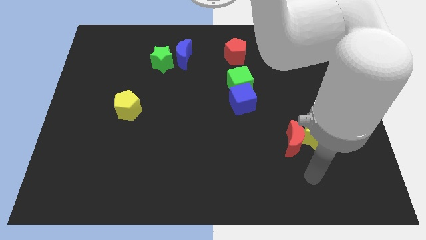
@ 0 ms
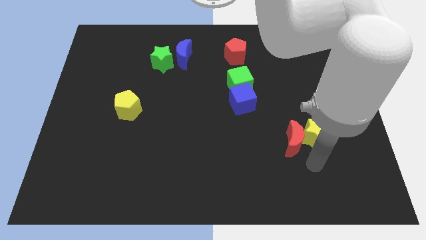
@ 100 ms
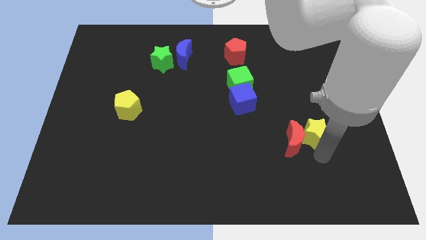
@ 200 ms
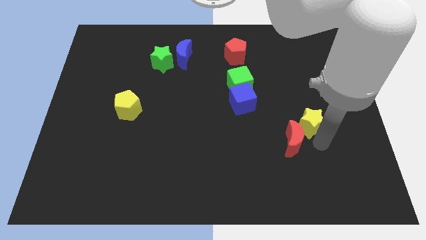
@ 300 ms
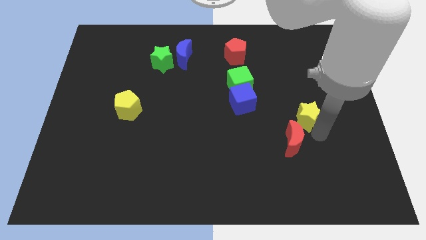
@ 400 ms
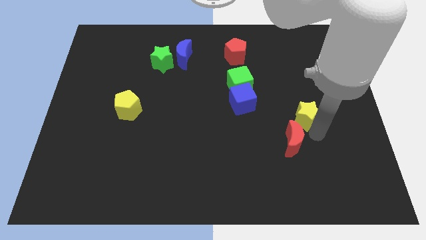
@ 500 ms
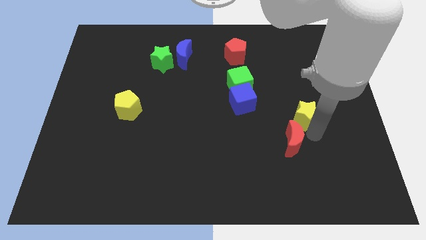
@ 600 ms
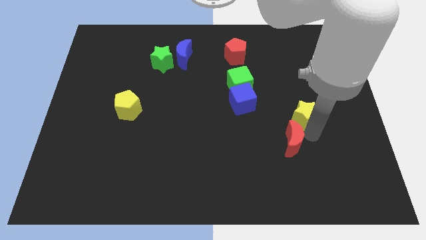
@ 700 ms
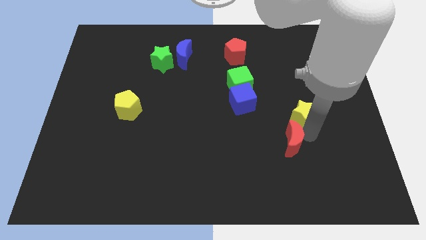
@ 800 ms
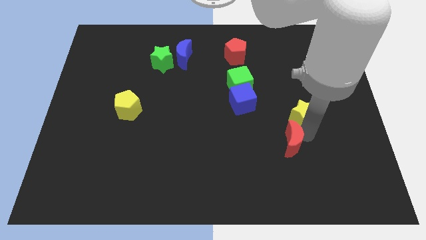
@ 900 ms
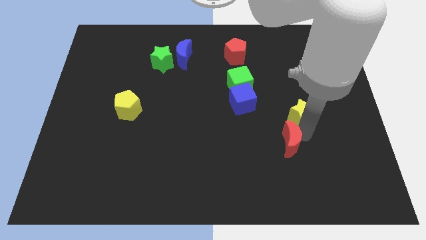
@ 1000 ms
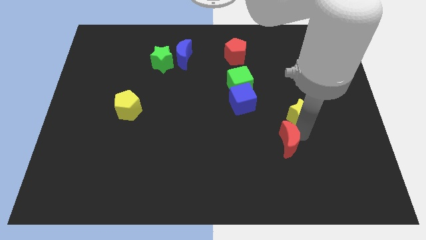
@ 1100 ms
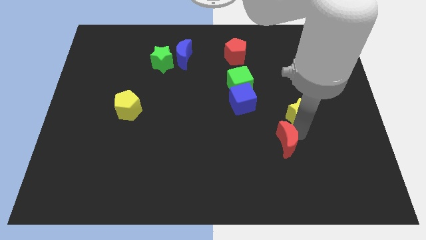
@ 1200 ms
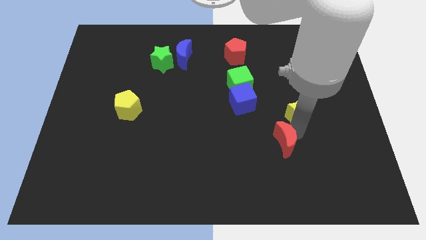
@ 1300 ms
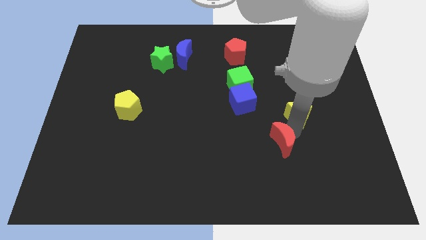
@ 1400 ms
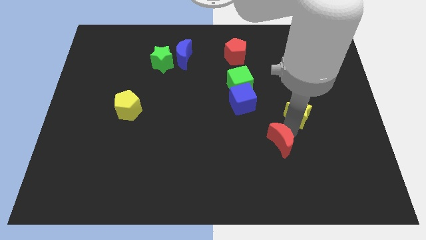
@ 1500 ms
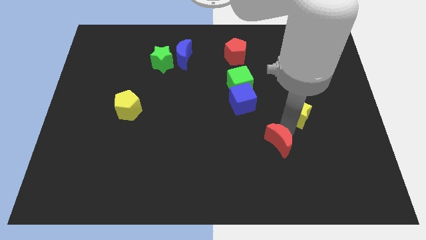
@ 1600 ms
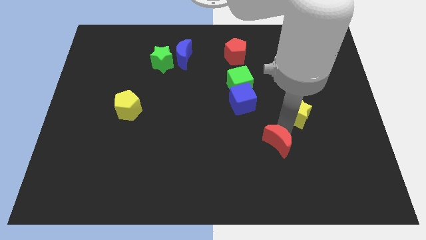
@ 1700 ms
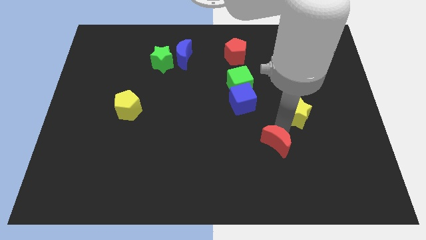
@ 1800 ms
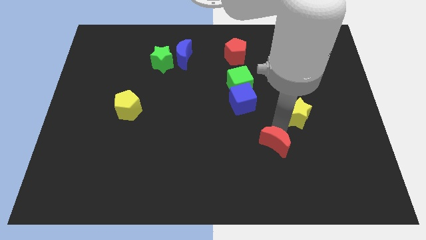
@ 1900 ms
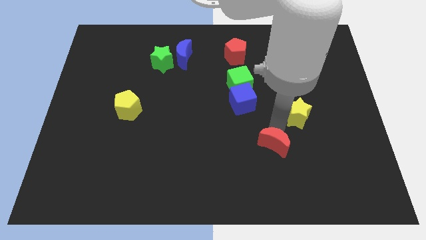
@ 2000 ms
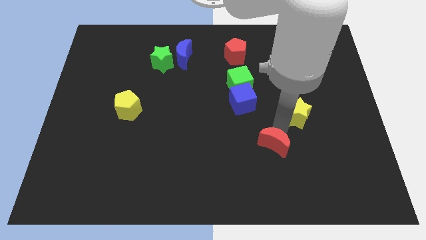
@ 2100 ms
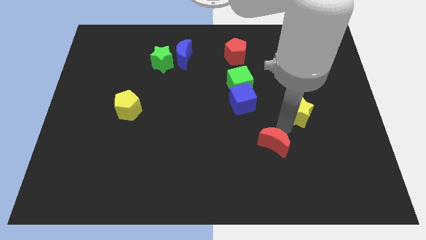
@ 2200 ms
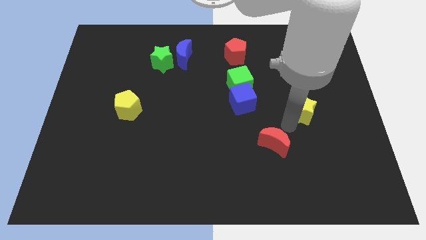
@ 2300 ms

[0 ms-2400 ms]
move the red moon away from the yellow star

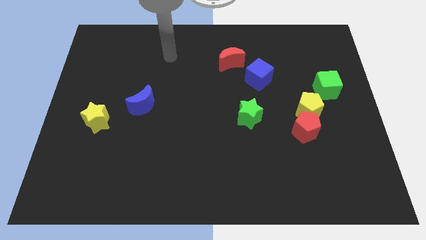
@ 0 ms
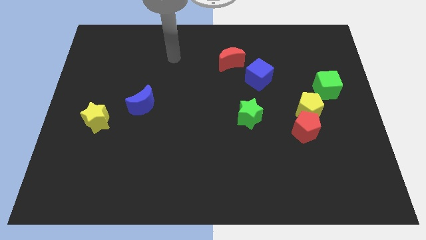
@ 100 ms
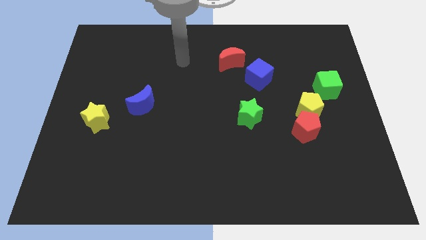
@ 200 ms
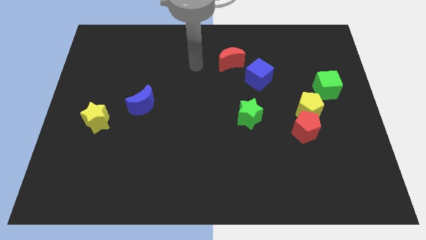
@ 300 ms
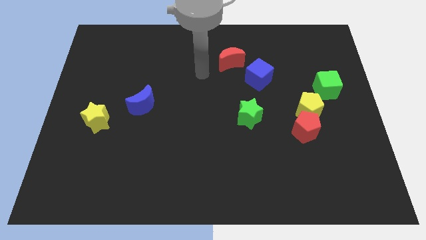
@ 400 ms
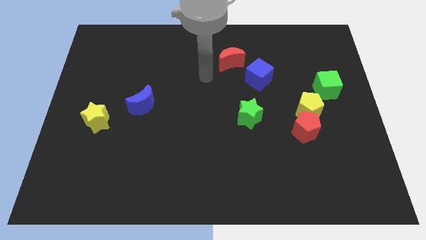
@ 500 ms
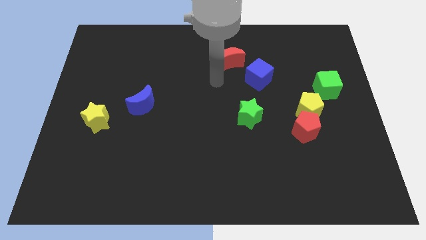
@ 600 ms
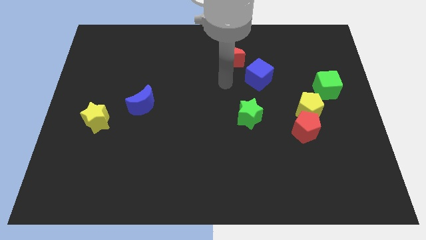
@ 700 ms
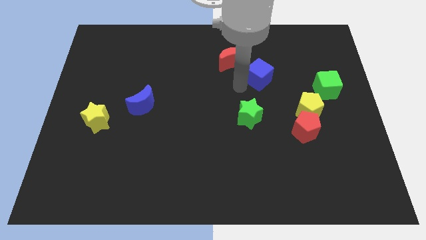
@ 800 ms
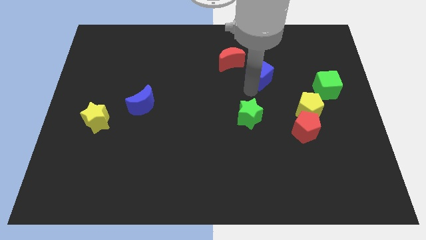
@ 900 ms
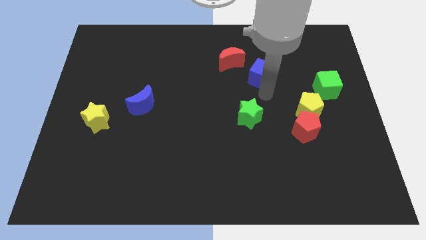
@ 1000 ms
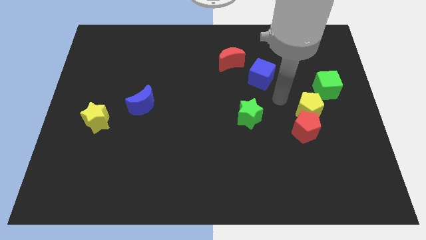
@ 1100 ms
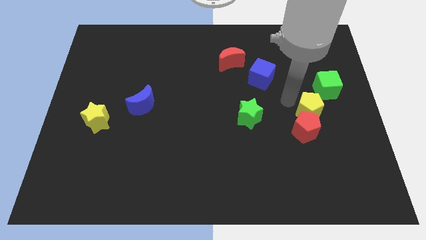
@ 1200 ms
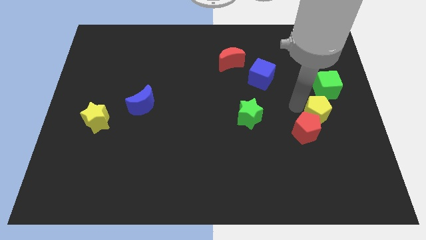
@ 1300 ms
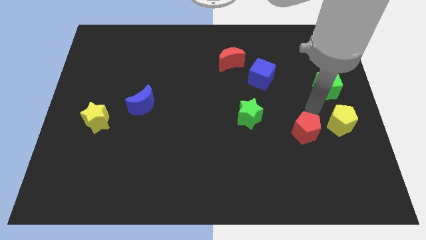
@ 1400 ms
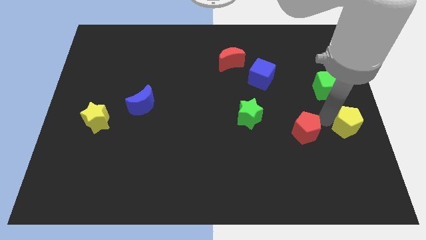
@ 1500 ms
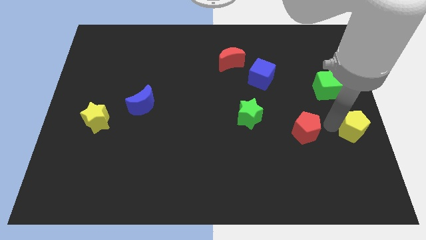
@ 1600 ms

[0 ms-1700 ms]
pull the red pentagon apart from the yellow pentagon

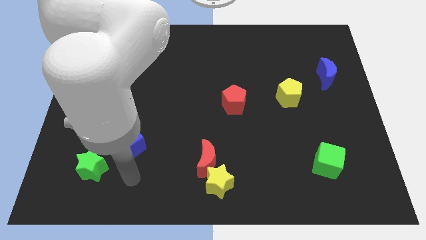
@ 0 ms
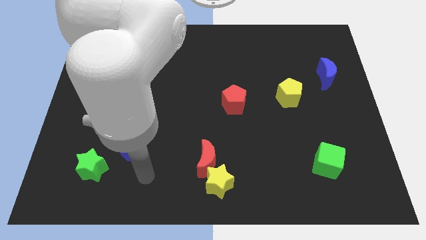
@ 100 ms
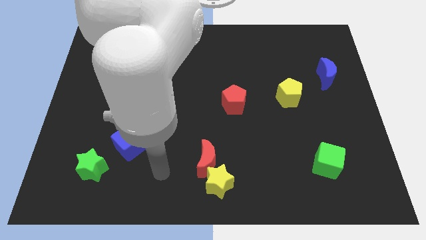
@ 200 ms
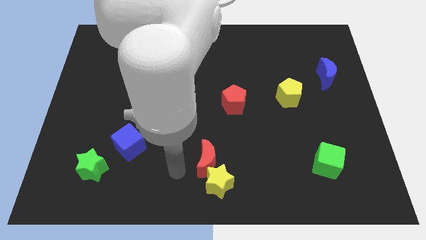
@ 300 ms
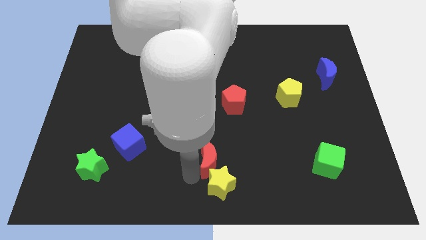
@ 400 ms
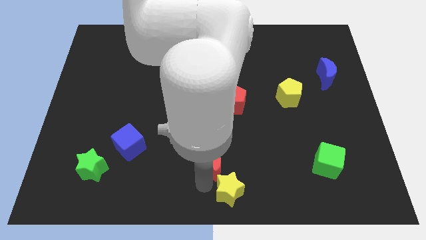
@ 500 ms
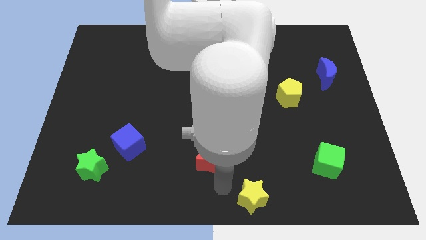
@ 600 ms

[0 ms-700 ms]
pull the red moon apart from the yellow star

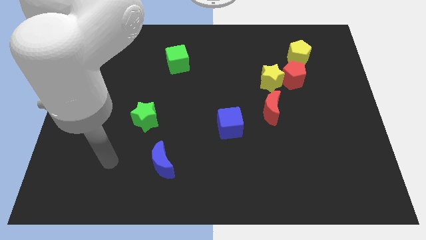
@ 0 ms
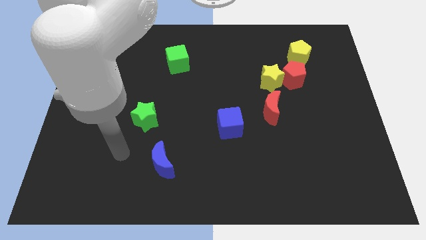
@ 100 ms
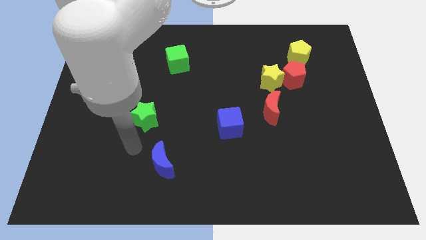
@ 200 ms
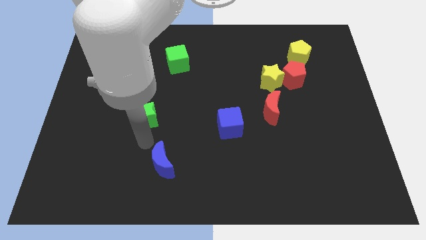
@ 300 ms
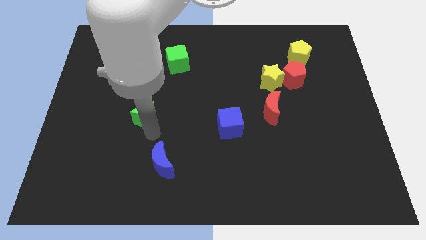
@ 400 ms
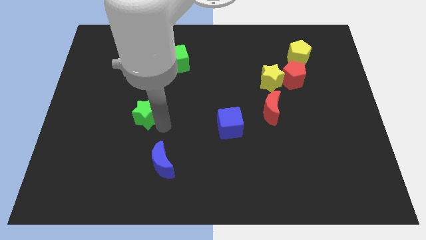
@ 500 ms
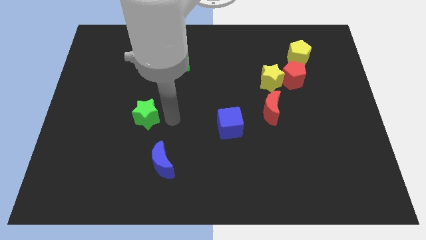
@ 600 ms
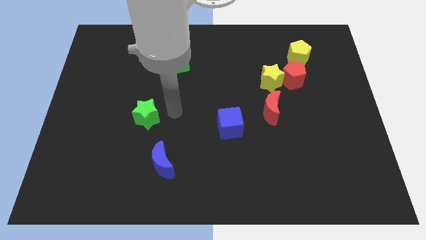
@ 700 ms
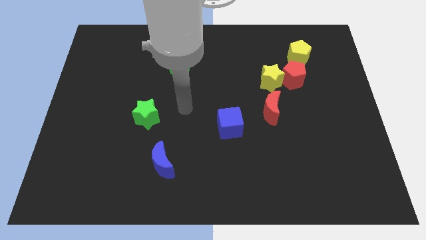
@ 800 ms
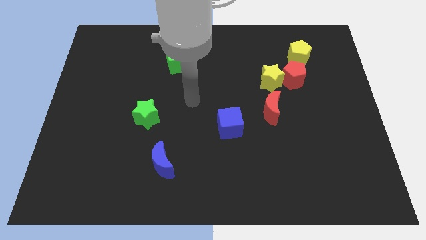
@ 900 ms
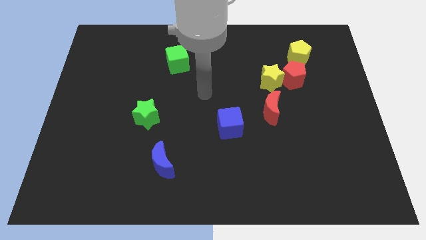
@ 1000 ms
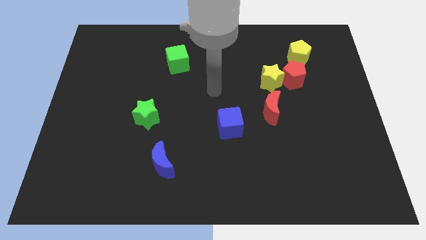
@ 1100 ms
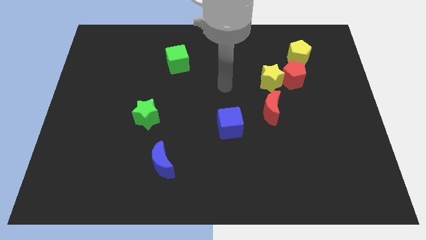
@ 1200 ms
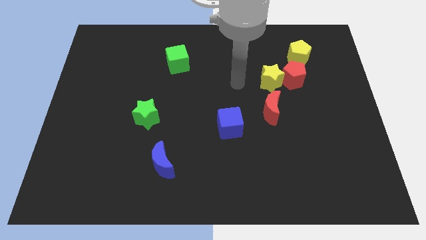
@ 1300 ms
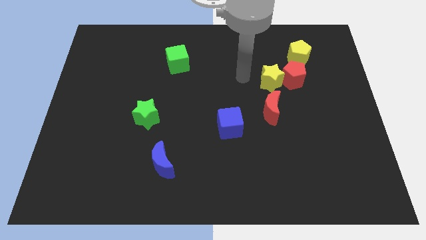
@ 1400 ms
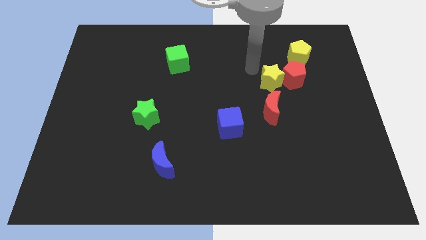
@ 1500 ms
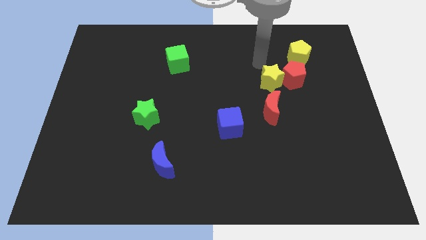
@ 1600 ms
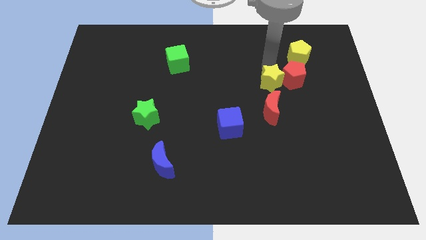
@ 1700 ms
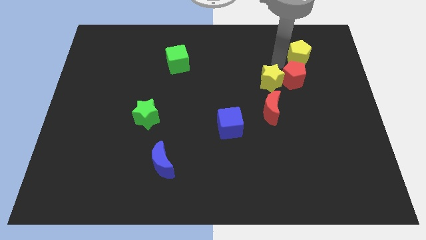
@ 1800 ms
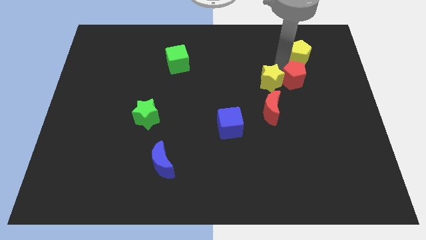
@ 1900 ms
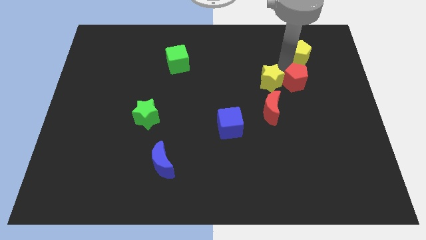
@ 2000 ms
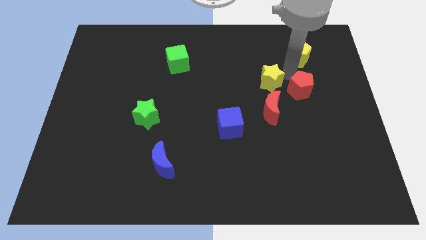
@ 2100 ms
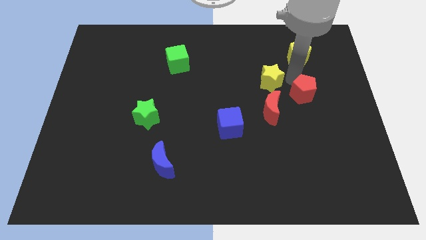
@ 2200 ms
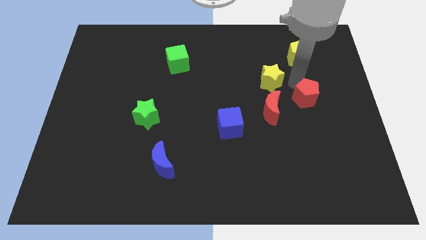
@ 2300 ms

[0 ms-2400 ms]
pull the red pentagon apart from the yellow star and yellow pentagon

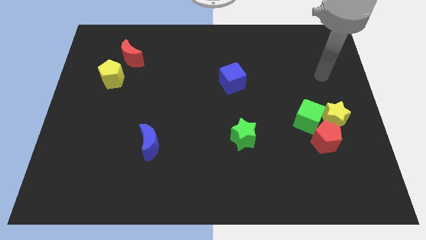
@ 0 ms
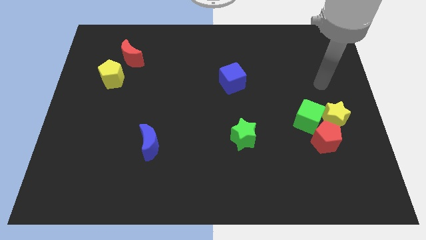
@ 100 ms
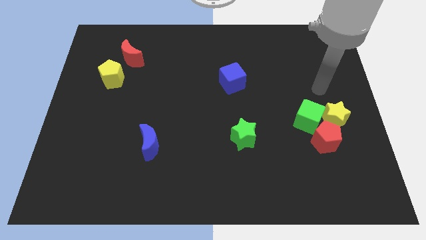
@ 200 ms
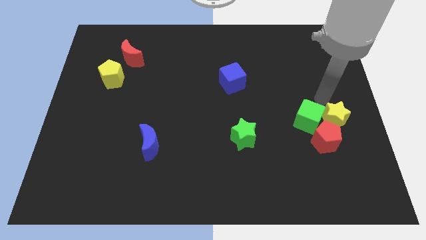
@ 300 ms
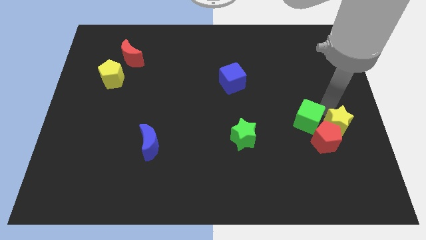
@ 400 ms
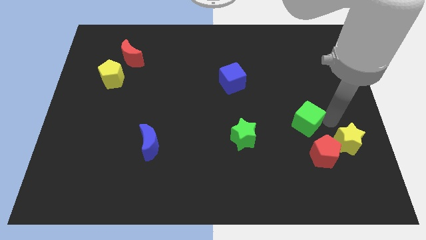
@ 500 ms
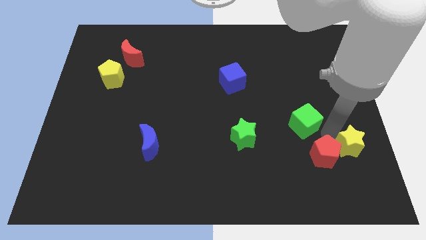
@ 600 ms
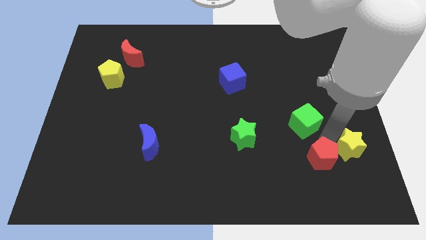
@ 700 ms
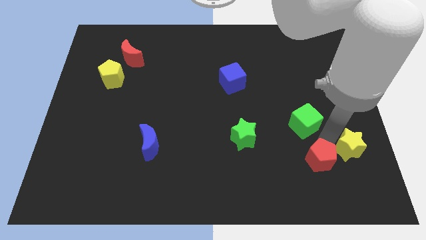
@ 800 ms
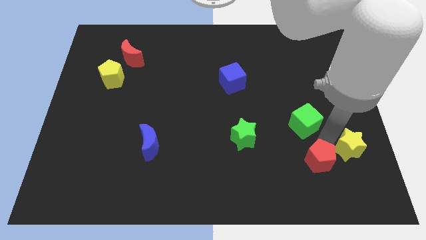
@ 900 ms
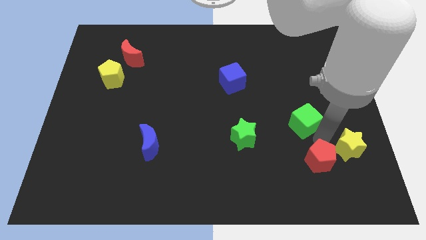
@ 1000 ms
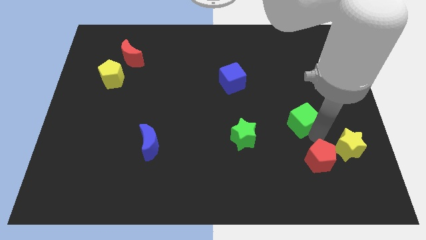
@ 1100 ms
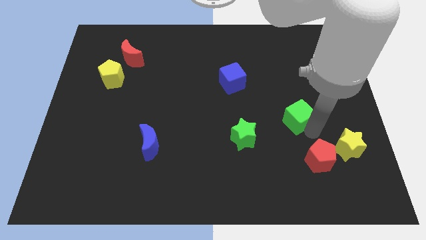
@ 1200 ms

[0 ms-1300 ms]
pull the green cube apart from the yellow star and red pentagon

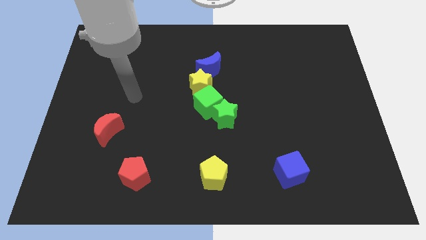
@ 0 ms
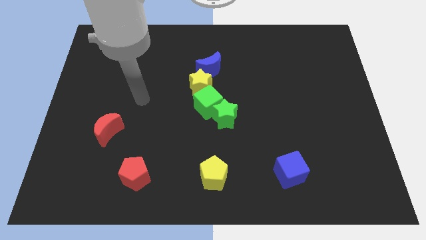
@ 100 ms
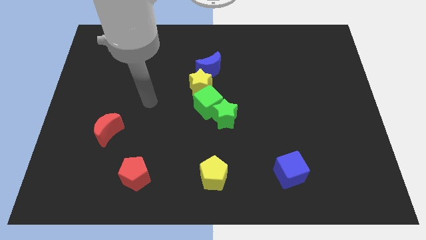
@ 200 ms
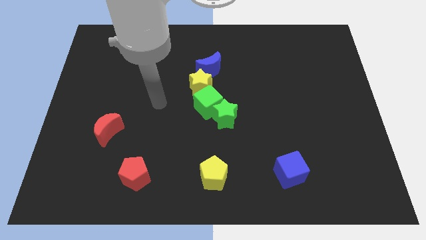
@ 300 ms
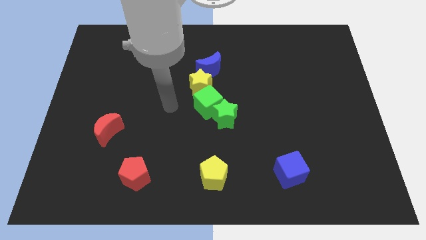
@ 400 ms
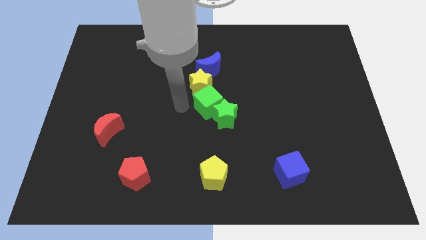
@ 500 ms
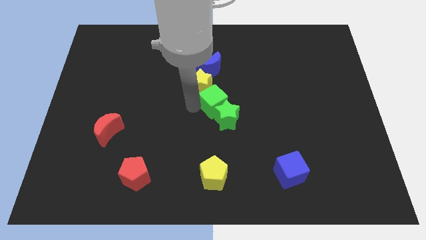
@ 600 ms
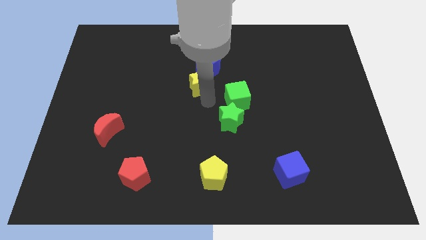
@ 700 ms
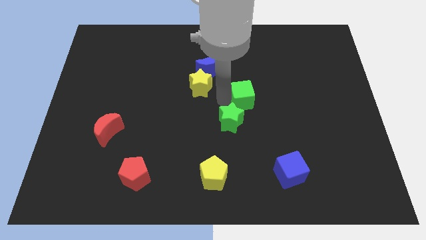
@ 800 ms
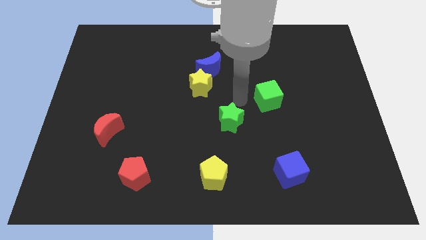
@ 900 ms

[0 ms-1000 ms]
move the green star away from the green cube
